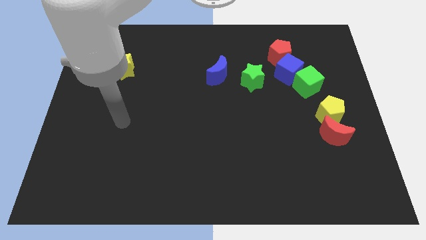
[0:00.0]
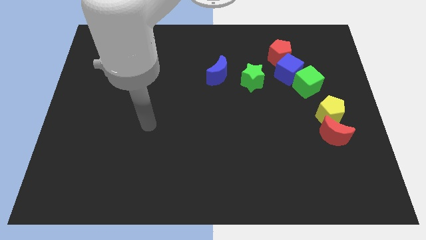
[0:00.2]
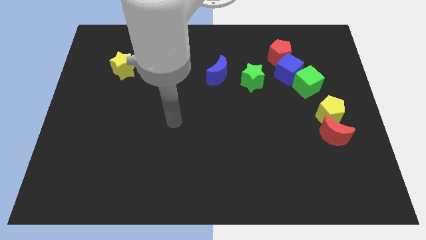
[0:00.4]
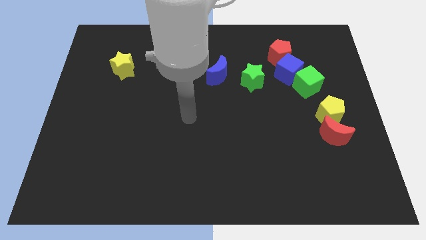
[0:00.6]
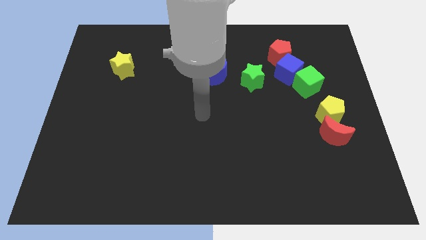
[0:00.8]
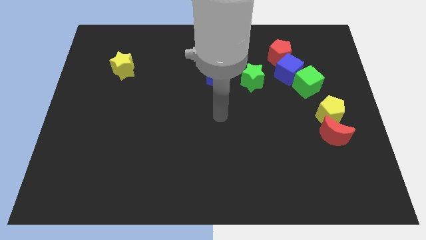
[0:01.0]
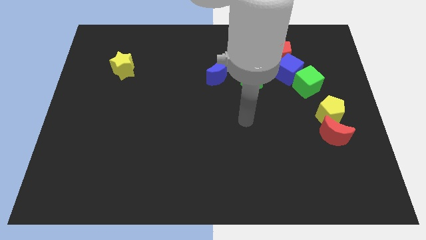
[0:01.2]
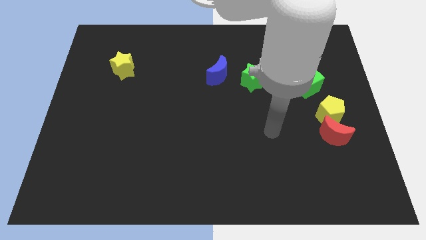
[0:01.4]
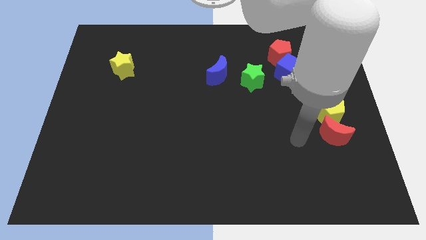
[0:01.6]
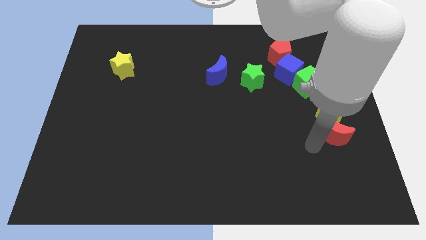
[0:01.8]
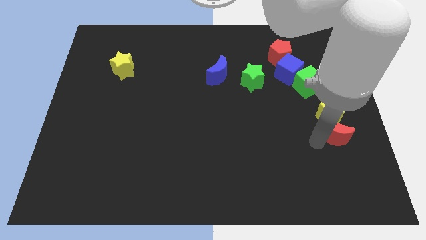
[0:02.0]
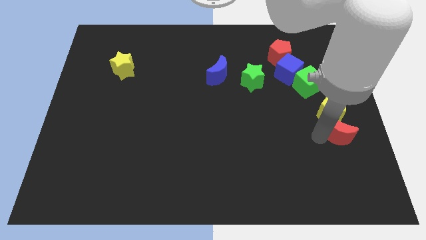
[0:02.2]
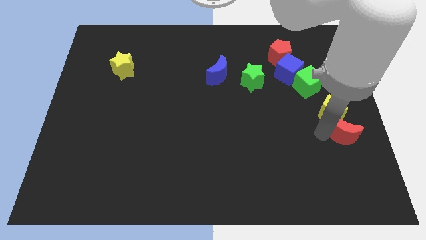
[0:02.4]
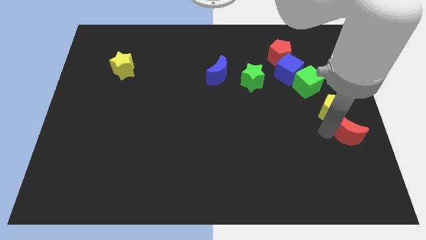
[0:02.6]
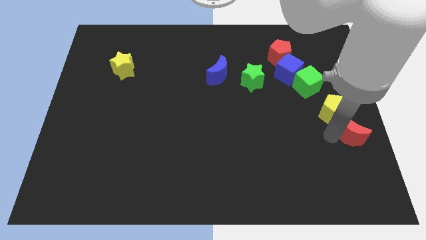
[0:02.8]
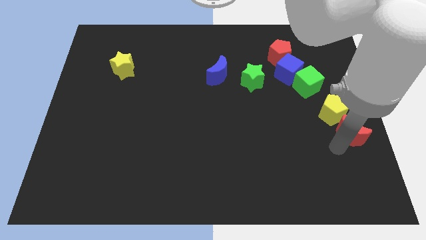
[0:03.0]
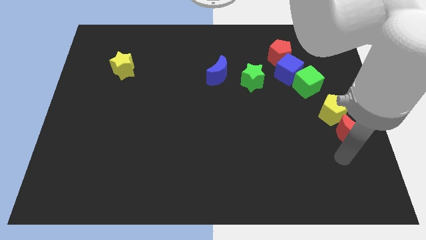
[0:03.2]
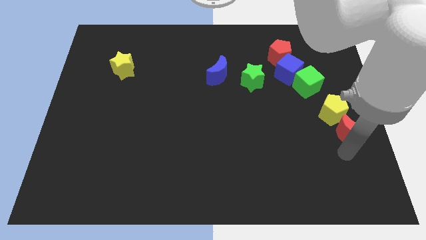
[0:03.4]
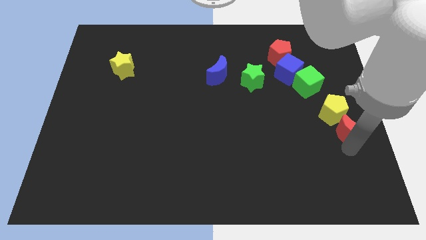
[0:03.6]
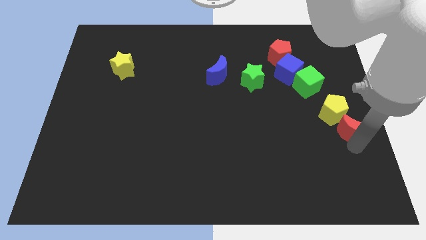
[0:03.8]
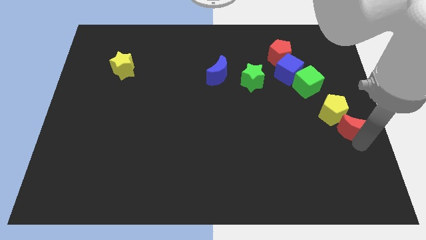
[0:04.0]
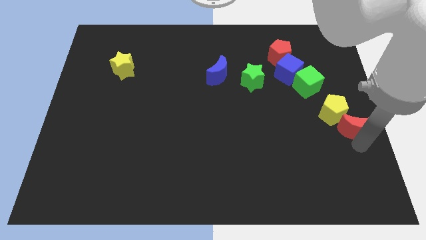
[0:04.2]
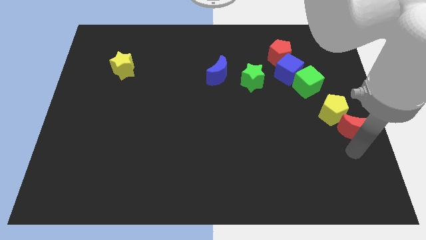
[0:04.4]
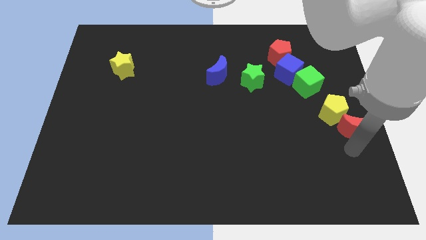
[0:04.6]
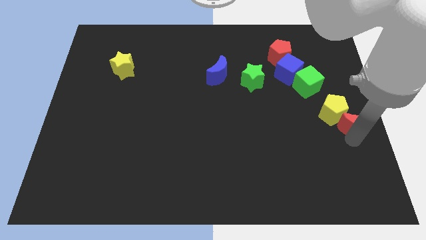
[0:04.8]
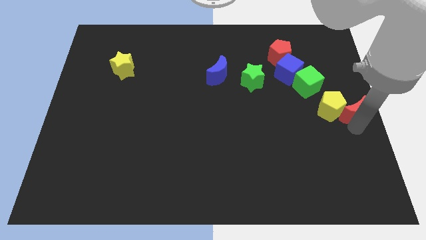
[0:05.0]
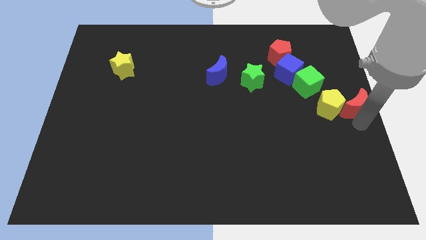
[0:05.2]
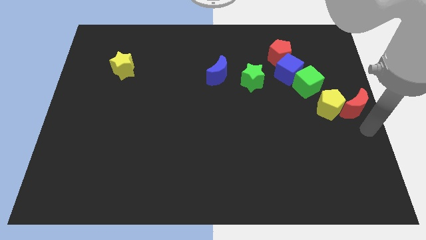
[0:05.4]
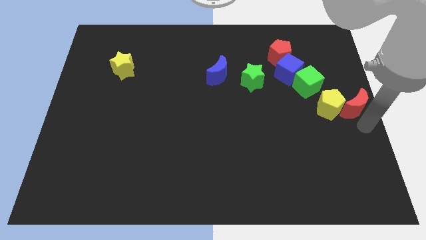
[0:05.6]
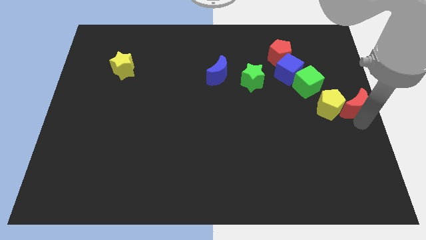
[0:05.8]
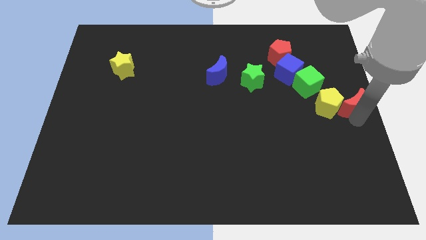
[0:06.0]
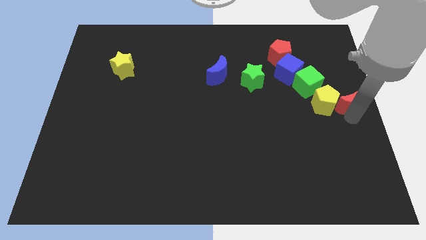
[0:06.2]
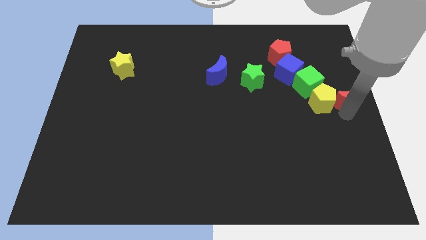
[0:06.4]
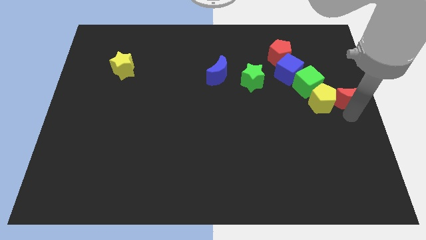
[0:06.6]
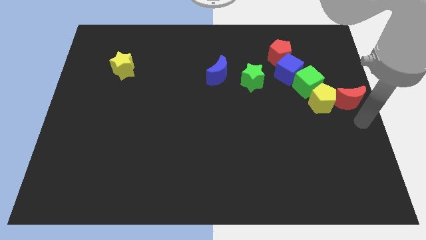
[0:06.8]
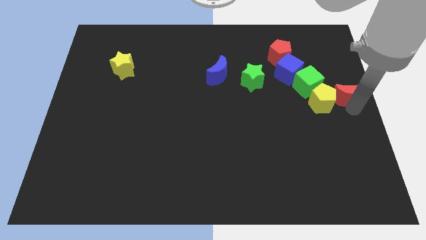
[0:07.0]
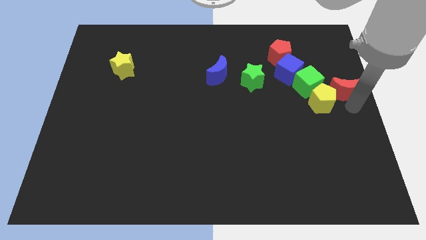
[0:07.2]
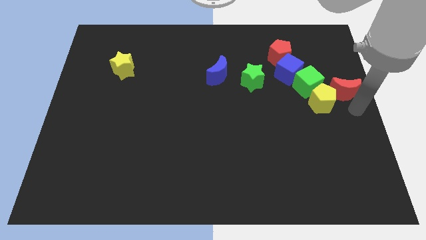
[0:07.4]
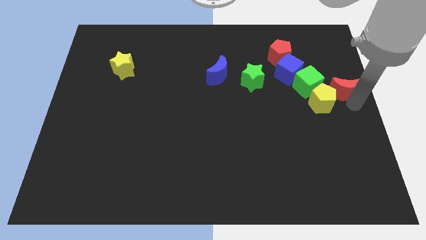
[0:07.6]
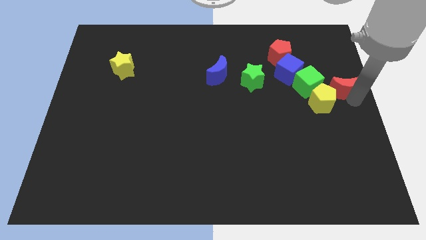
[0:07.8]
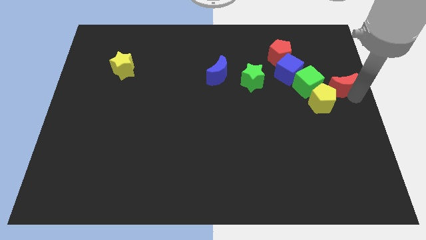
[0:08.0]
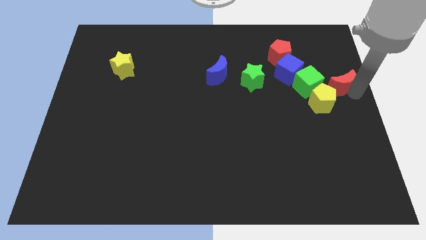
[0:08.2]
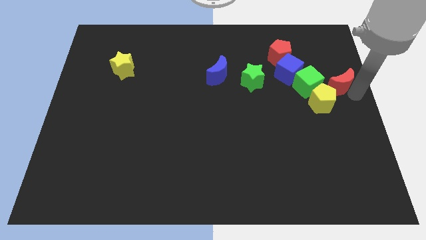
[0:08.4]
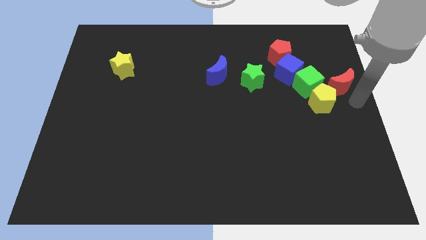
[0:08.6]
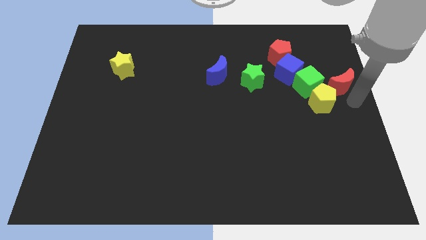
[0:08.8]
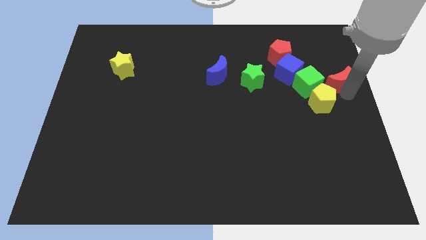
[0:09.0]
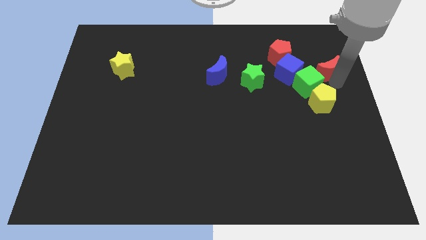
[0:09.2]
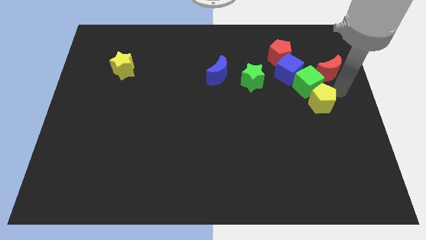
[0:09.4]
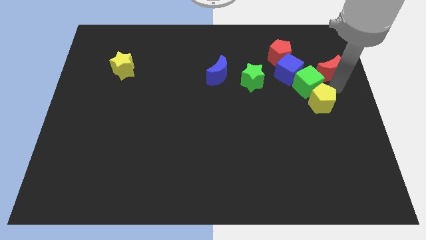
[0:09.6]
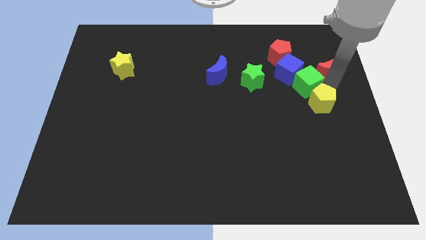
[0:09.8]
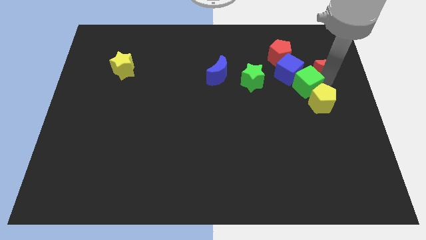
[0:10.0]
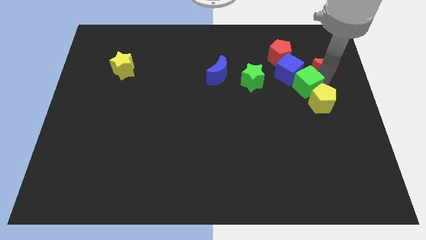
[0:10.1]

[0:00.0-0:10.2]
slide the red moon to the right of the red pentagon

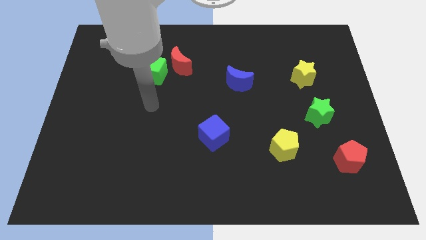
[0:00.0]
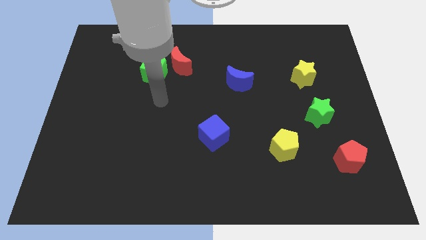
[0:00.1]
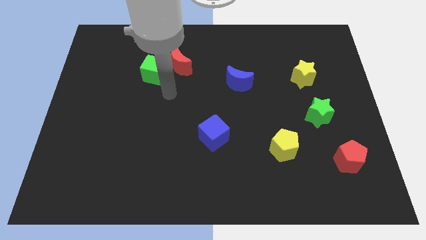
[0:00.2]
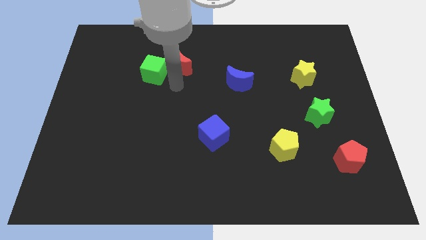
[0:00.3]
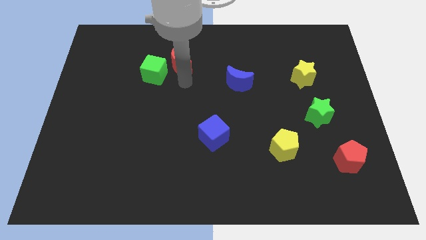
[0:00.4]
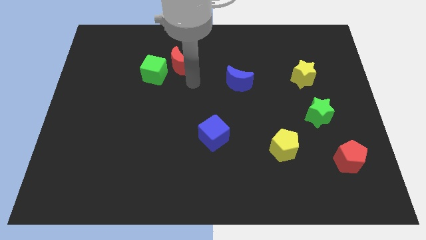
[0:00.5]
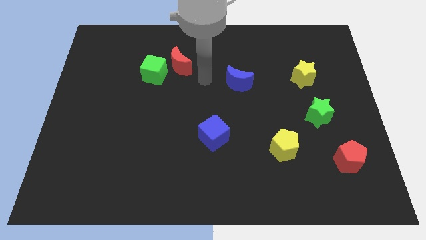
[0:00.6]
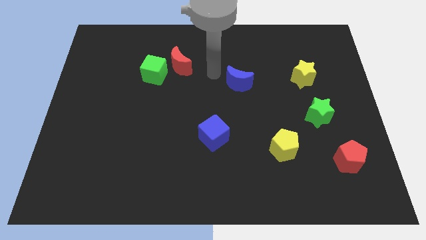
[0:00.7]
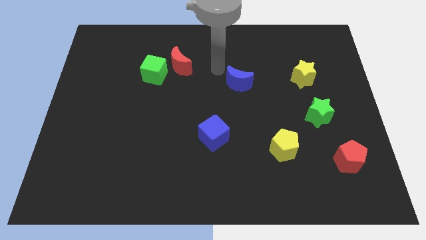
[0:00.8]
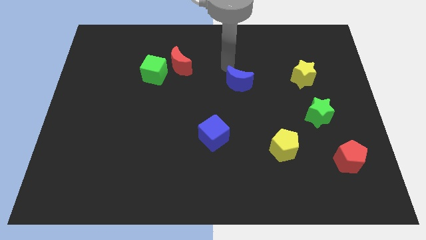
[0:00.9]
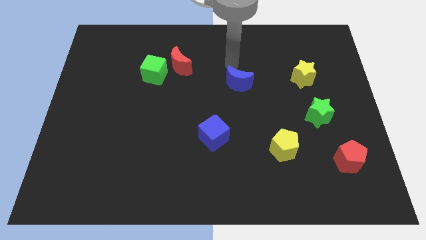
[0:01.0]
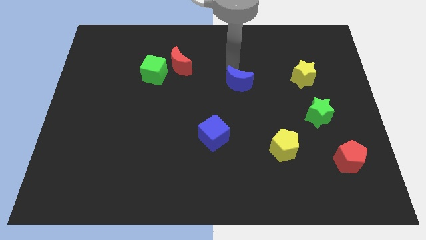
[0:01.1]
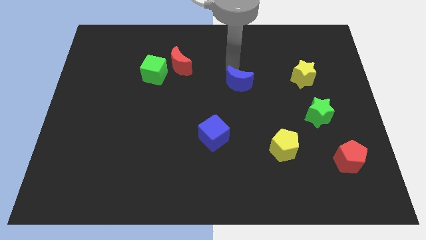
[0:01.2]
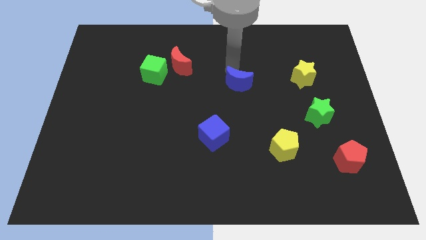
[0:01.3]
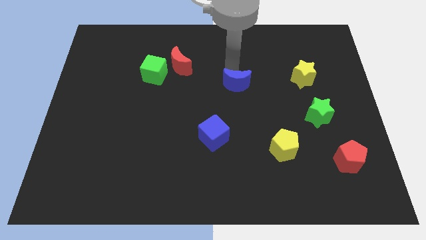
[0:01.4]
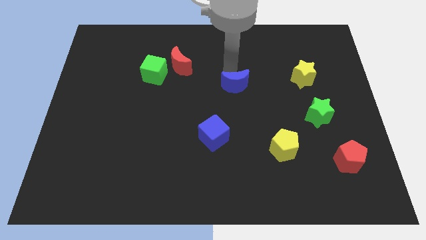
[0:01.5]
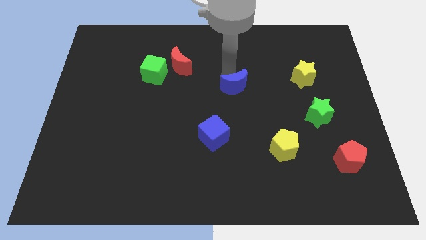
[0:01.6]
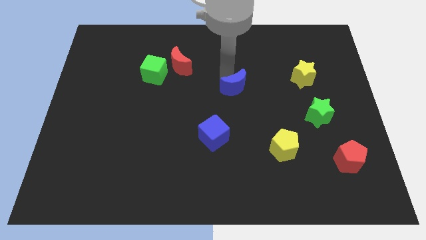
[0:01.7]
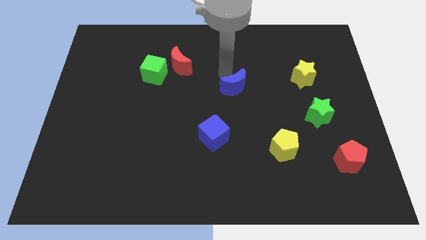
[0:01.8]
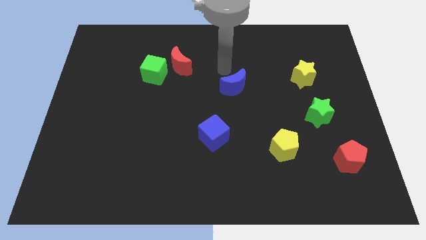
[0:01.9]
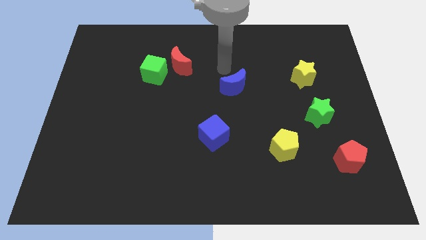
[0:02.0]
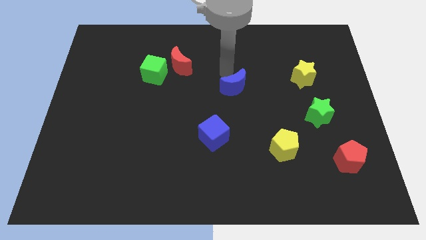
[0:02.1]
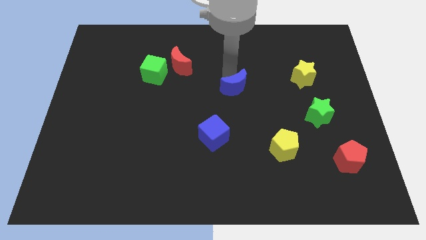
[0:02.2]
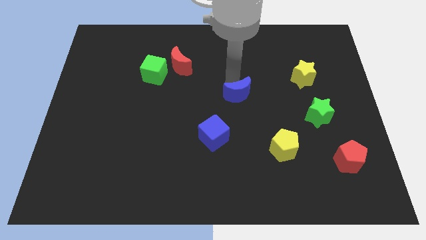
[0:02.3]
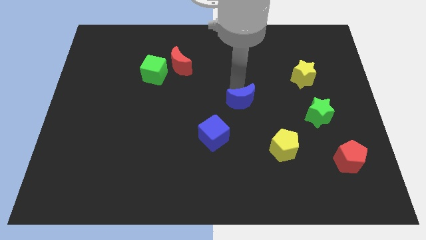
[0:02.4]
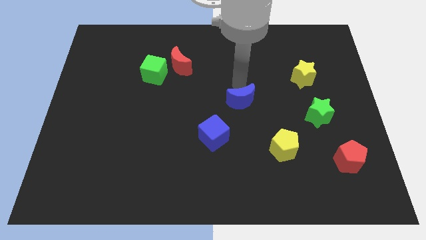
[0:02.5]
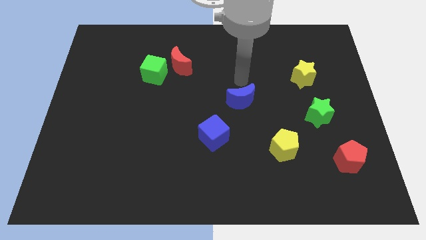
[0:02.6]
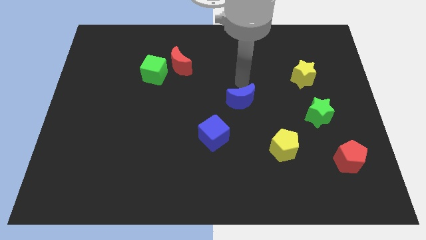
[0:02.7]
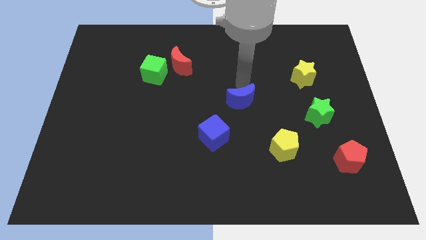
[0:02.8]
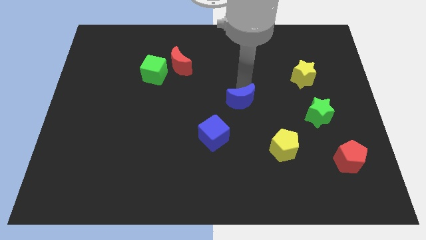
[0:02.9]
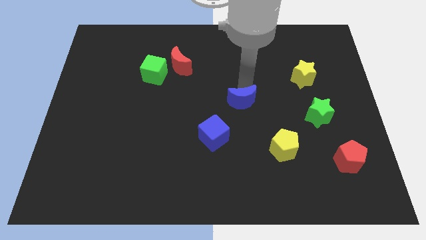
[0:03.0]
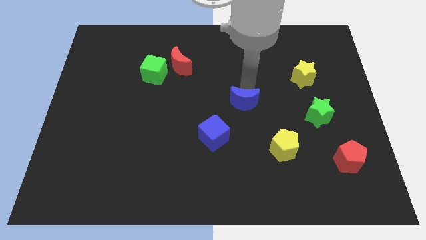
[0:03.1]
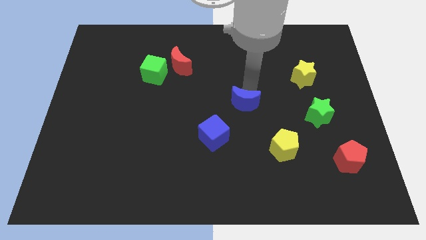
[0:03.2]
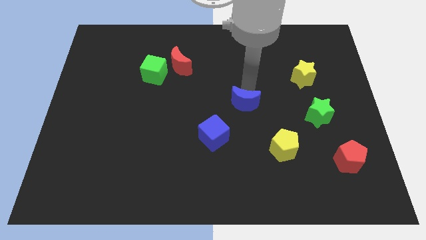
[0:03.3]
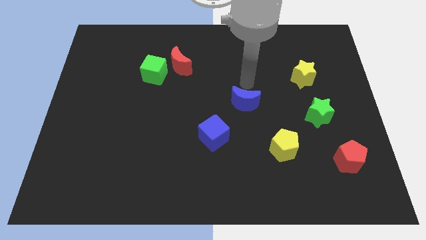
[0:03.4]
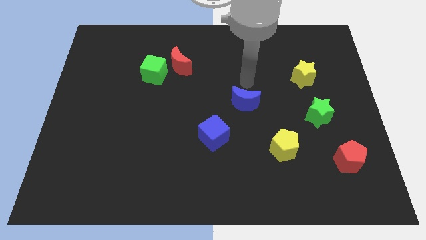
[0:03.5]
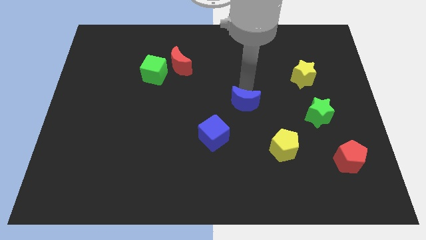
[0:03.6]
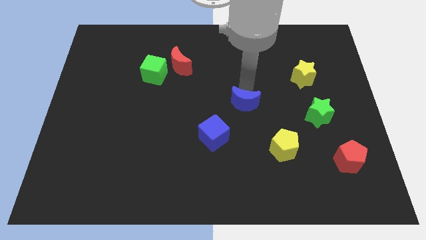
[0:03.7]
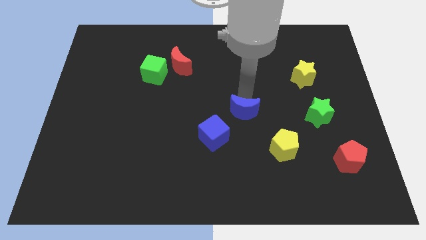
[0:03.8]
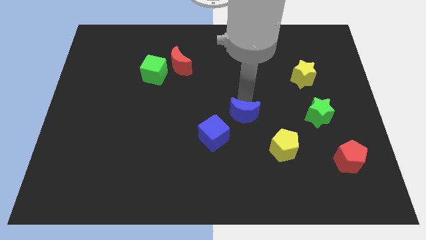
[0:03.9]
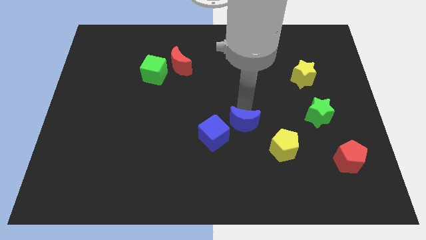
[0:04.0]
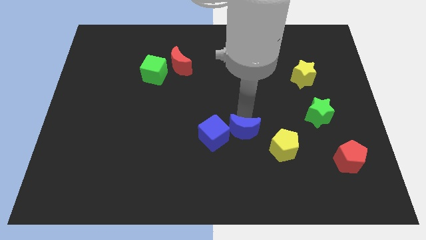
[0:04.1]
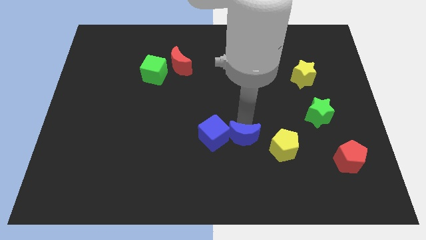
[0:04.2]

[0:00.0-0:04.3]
push the blue moon diagonally down and to the right of the blue cube
